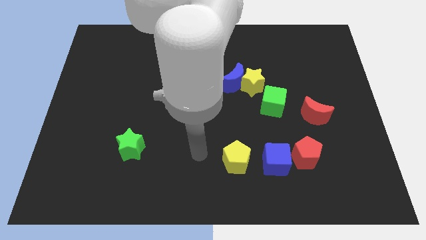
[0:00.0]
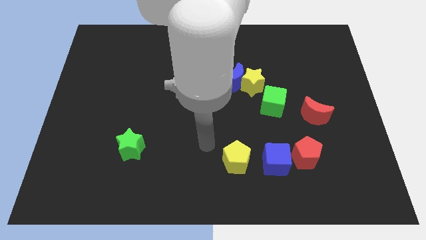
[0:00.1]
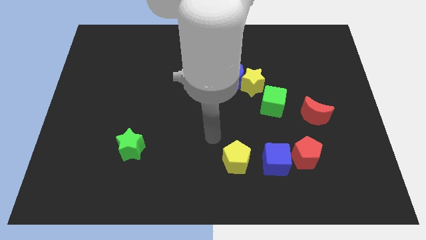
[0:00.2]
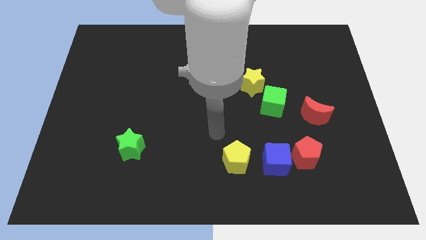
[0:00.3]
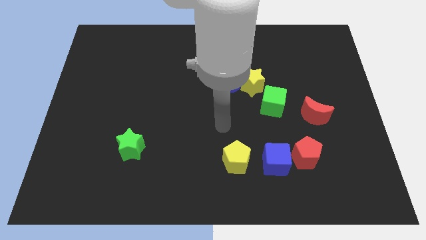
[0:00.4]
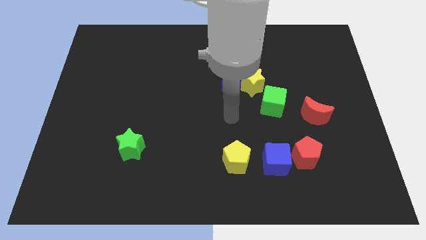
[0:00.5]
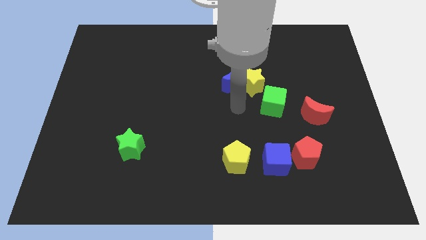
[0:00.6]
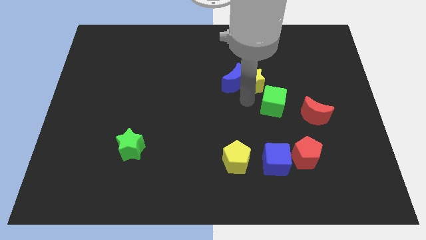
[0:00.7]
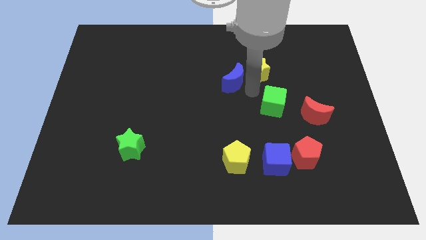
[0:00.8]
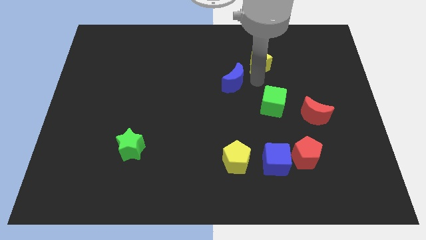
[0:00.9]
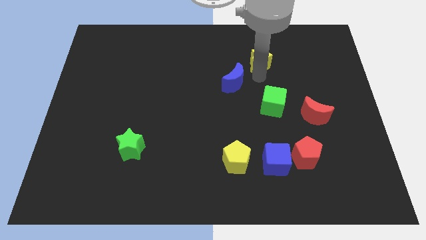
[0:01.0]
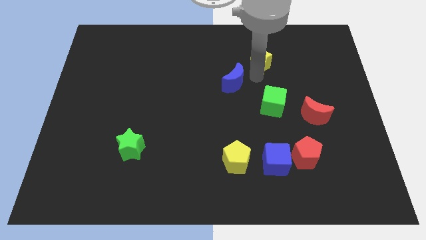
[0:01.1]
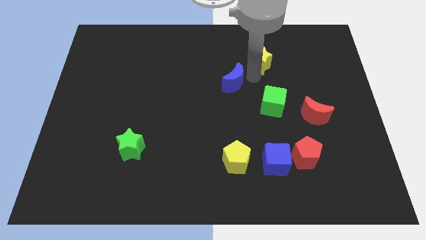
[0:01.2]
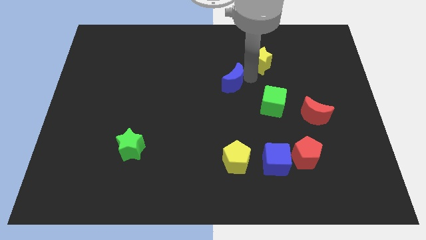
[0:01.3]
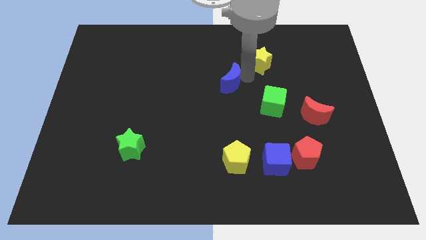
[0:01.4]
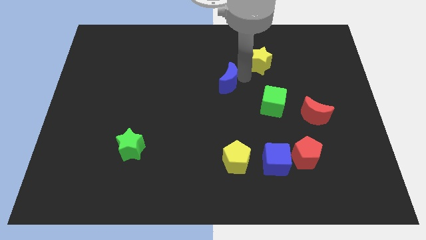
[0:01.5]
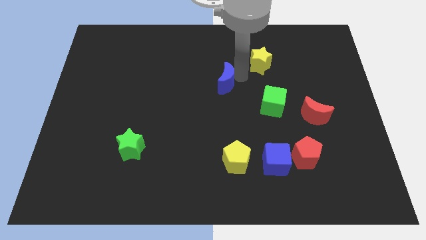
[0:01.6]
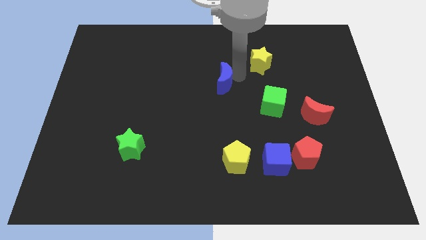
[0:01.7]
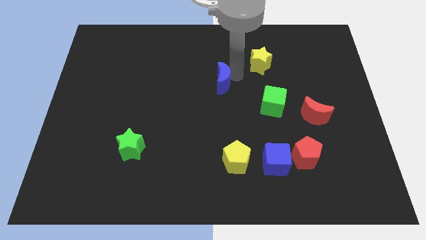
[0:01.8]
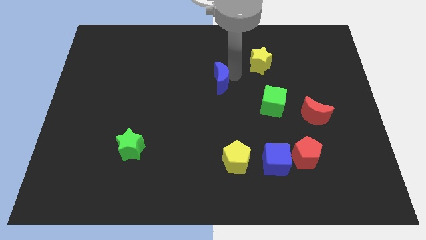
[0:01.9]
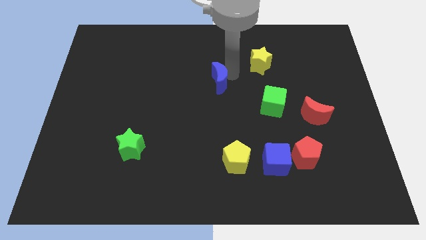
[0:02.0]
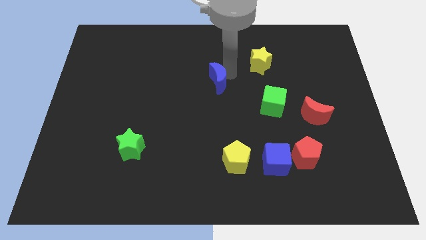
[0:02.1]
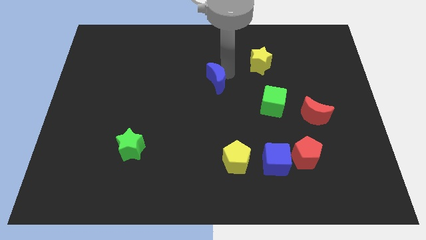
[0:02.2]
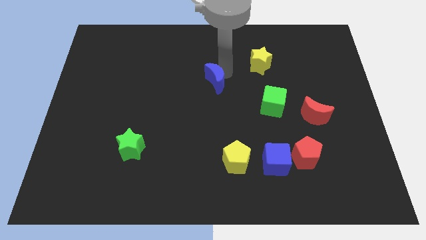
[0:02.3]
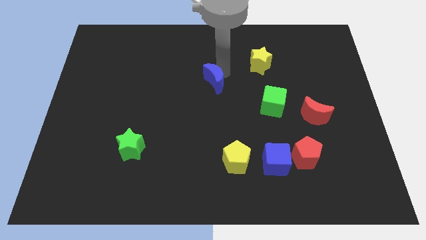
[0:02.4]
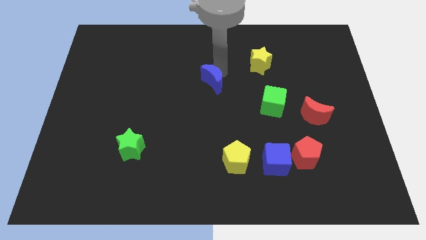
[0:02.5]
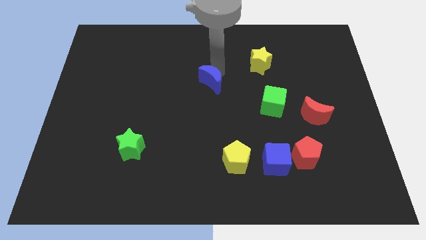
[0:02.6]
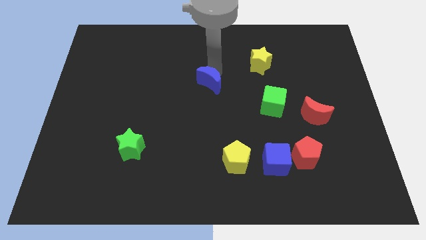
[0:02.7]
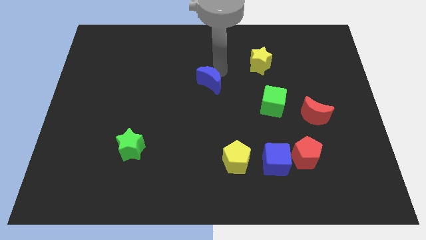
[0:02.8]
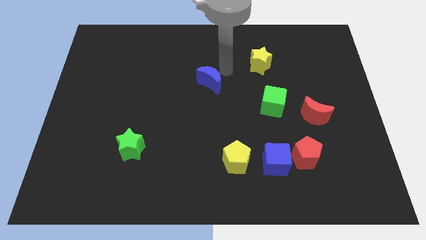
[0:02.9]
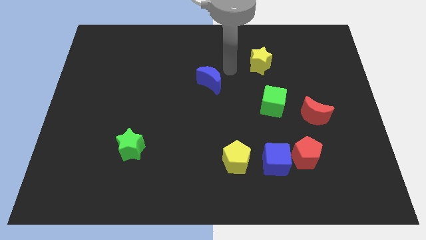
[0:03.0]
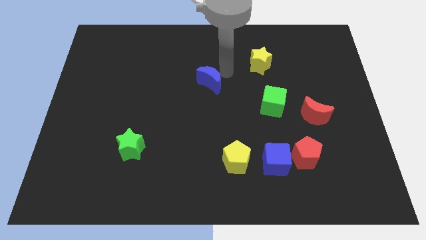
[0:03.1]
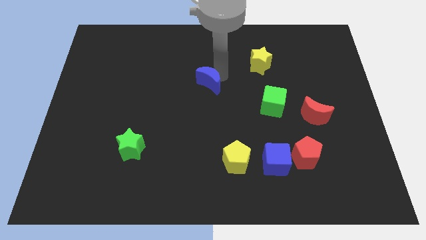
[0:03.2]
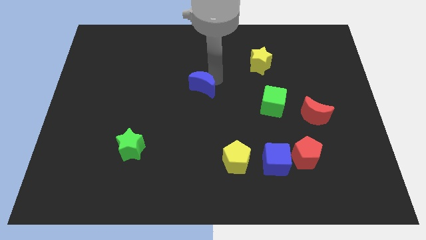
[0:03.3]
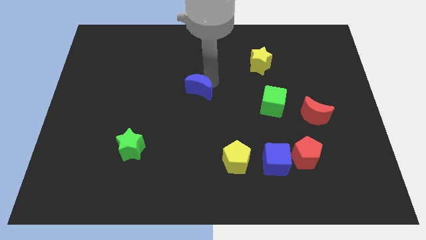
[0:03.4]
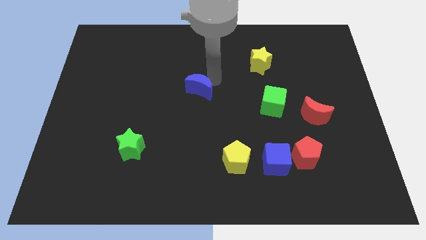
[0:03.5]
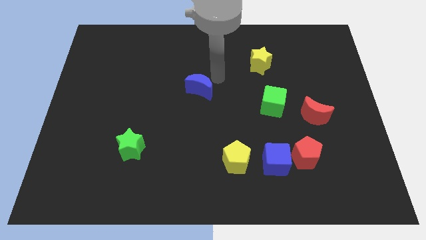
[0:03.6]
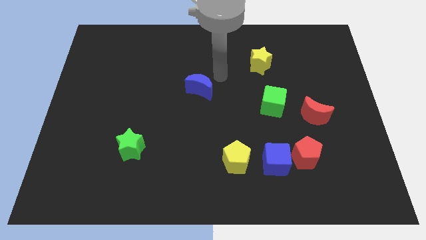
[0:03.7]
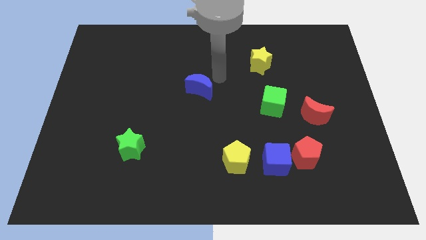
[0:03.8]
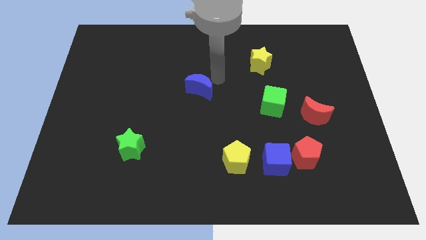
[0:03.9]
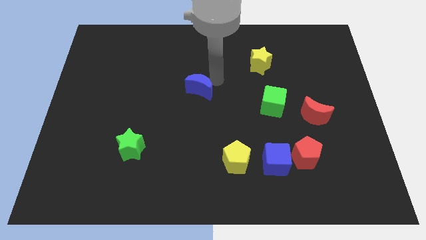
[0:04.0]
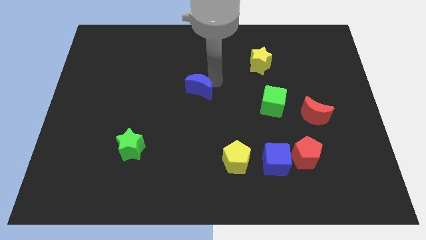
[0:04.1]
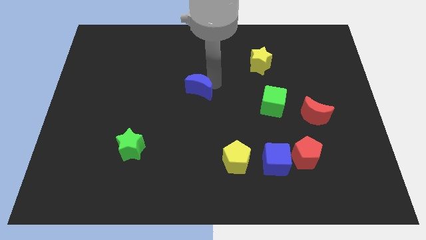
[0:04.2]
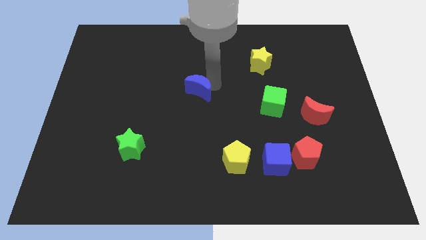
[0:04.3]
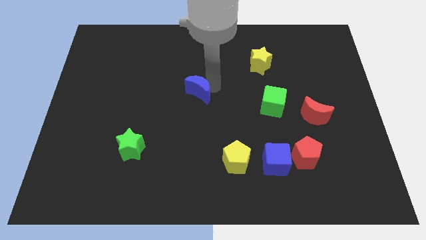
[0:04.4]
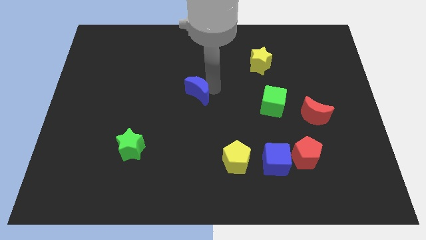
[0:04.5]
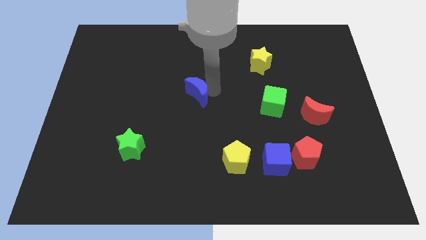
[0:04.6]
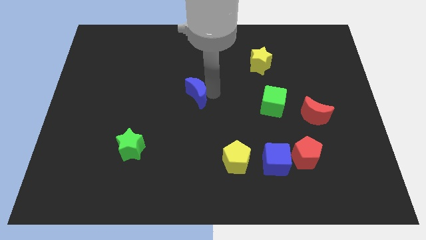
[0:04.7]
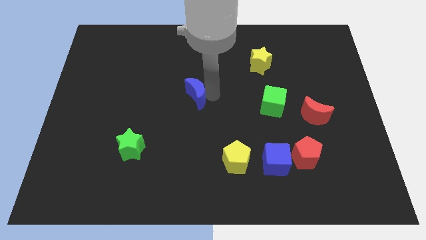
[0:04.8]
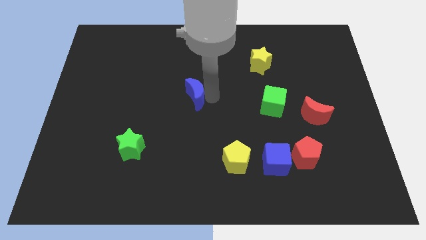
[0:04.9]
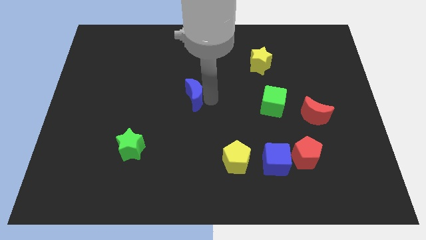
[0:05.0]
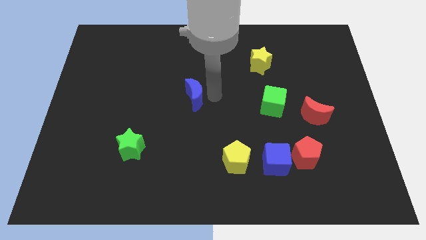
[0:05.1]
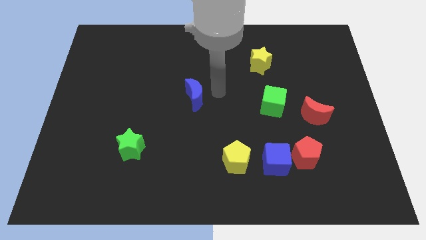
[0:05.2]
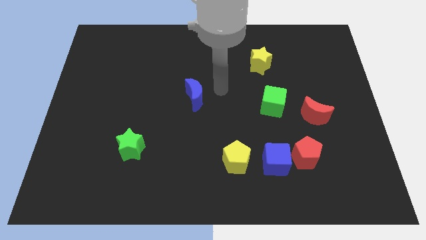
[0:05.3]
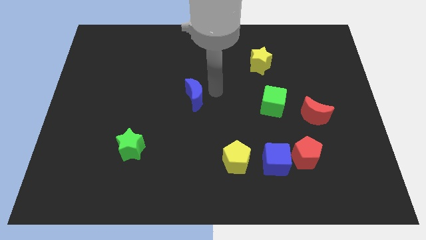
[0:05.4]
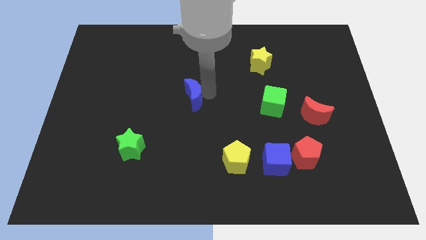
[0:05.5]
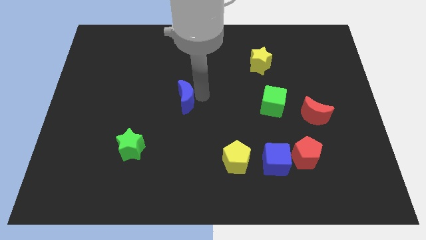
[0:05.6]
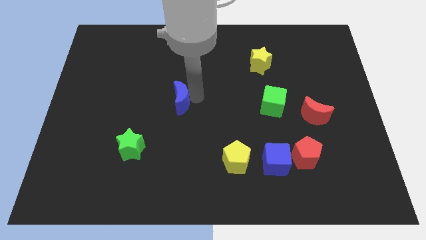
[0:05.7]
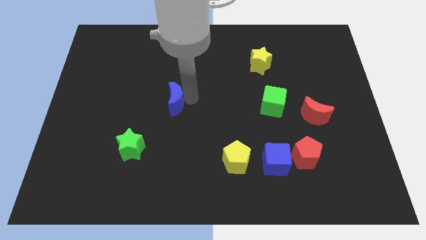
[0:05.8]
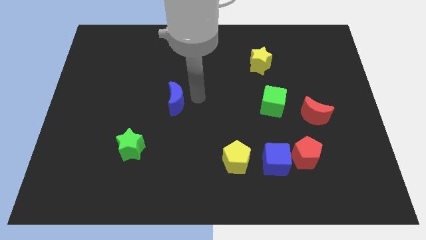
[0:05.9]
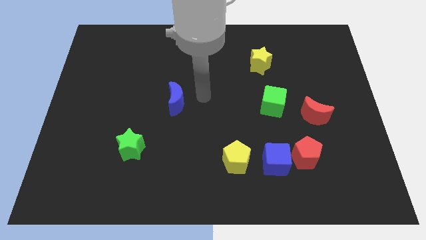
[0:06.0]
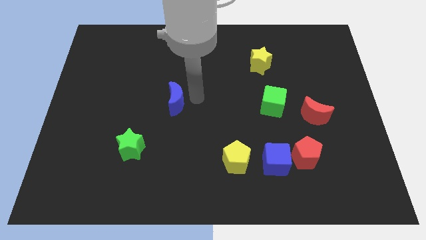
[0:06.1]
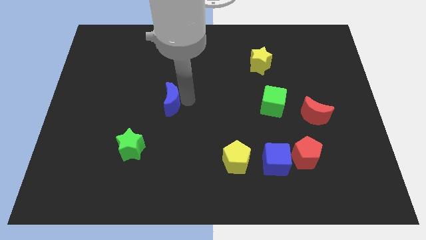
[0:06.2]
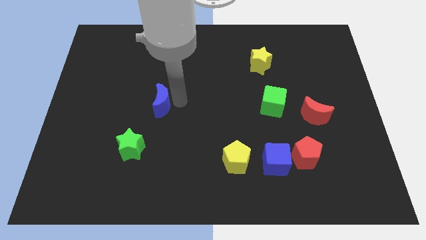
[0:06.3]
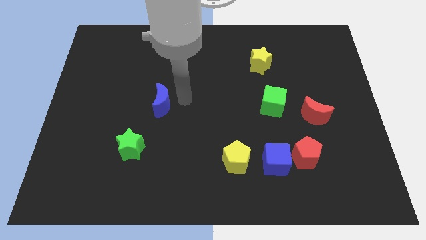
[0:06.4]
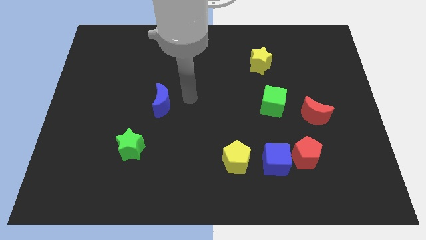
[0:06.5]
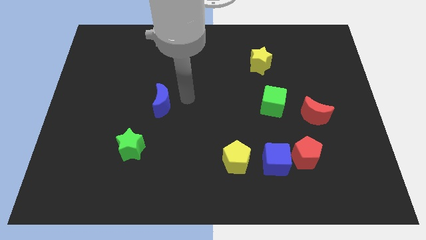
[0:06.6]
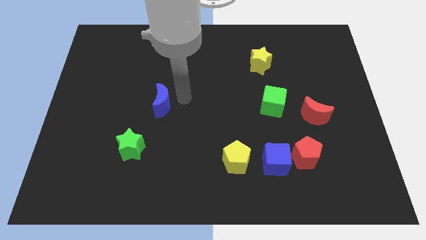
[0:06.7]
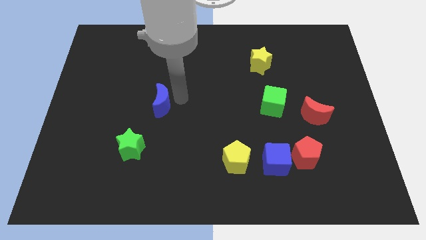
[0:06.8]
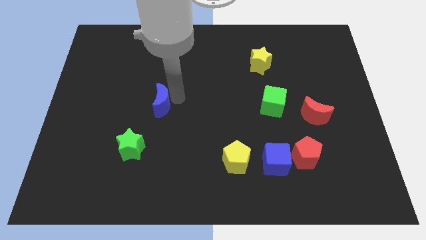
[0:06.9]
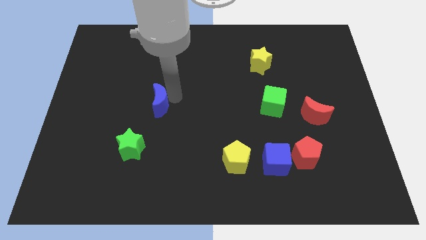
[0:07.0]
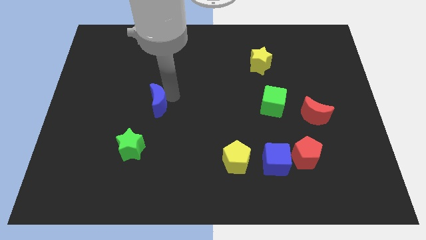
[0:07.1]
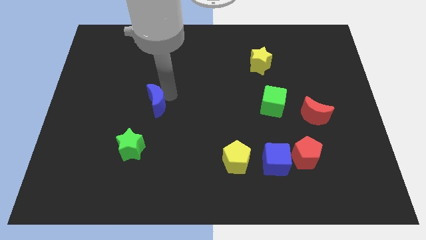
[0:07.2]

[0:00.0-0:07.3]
move the blue moon to the top of the green star
